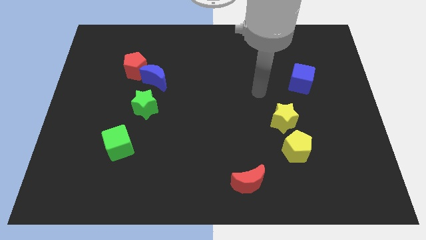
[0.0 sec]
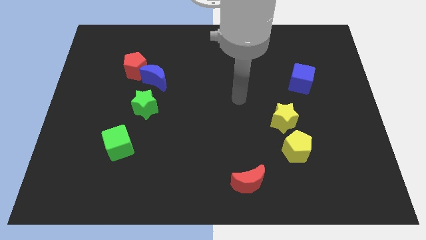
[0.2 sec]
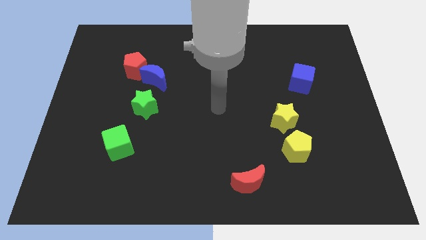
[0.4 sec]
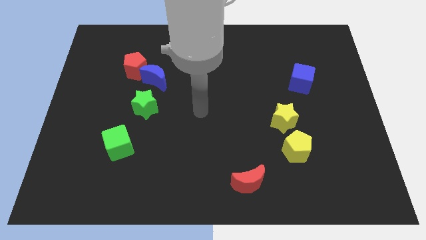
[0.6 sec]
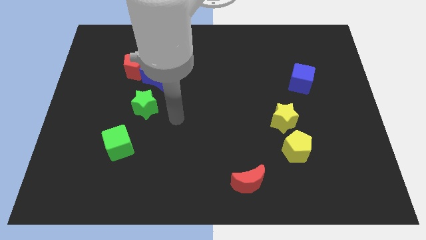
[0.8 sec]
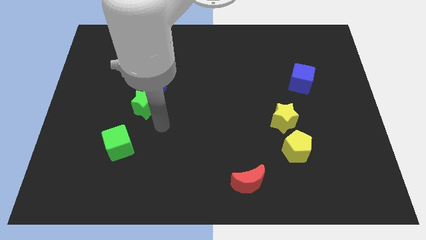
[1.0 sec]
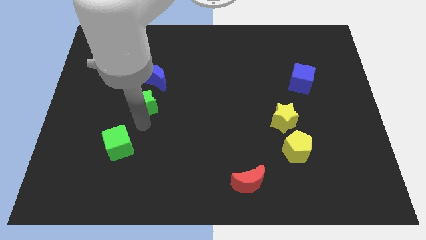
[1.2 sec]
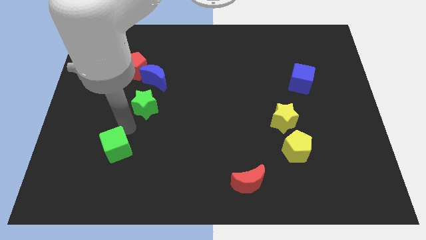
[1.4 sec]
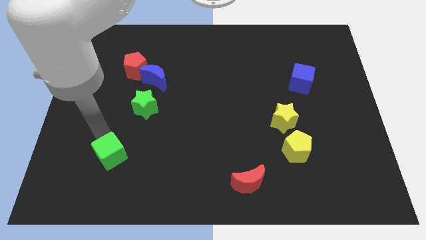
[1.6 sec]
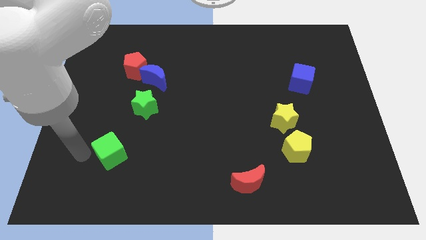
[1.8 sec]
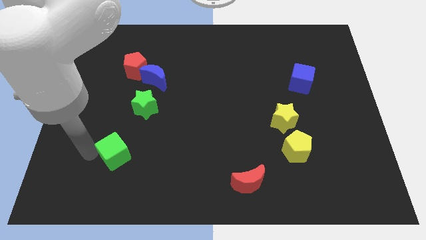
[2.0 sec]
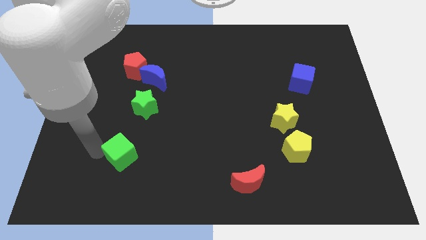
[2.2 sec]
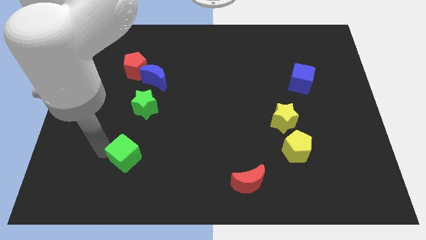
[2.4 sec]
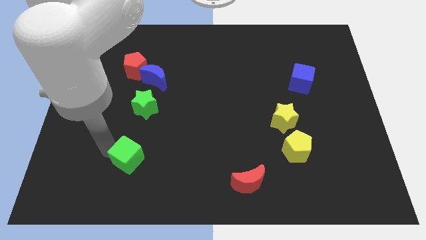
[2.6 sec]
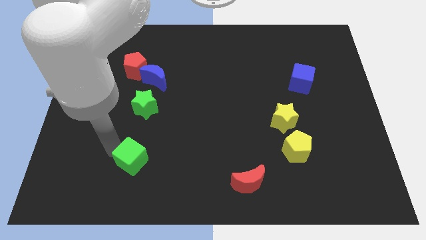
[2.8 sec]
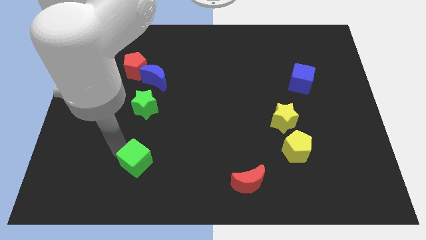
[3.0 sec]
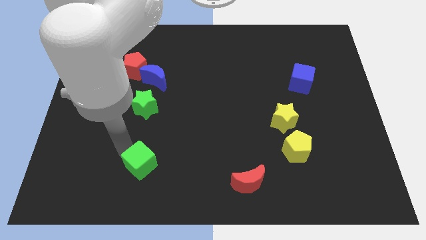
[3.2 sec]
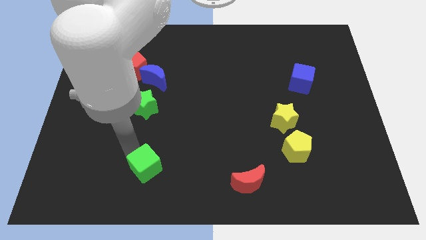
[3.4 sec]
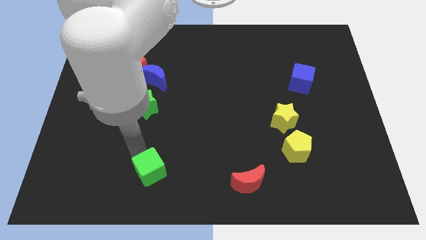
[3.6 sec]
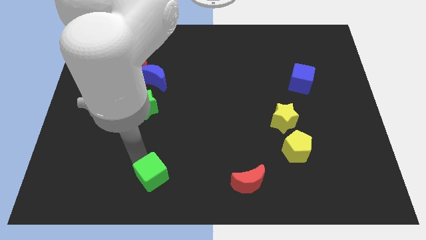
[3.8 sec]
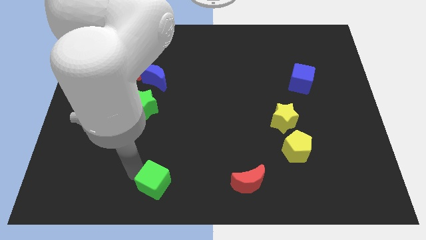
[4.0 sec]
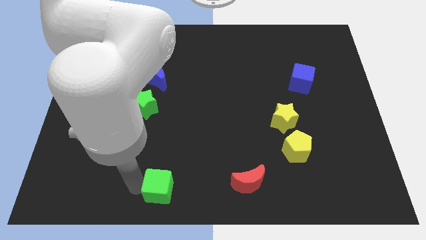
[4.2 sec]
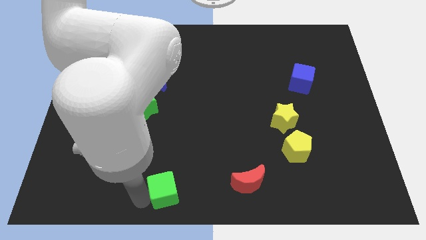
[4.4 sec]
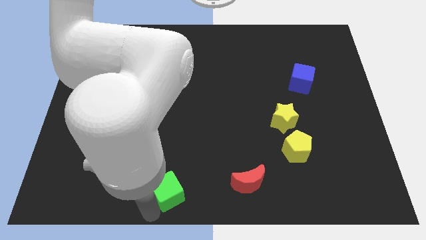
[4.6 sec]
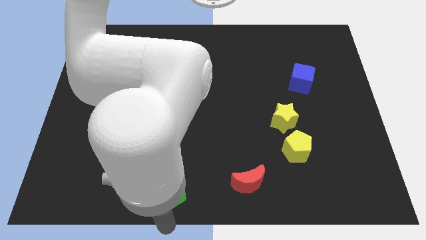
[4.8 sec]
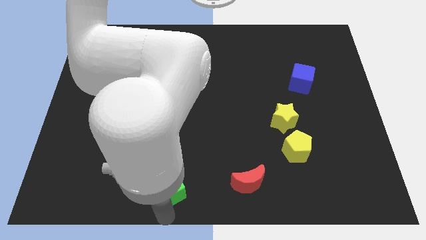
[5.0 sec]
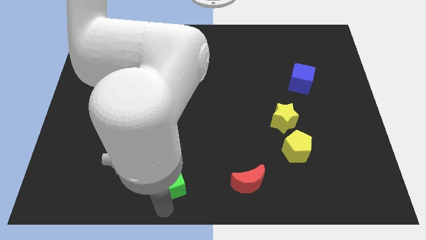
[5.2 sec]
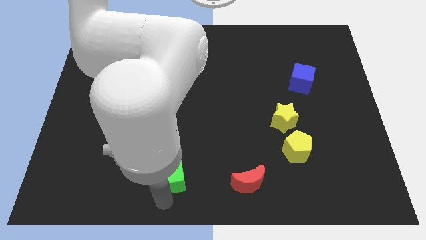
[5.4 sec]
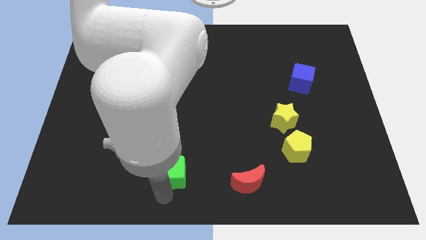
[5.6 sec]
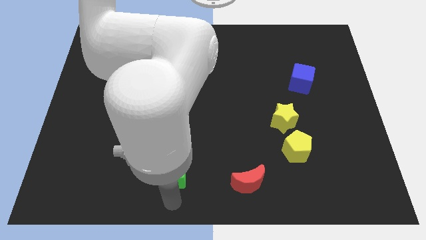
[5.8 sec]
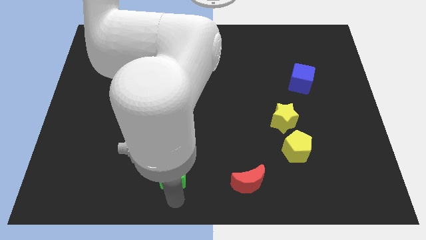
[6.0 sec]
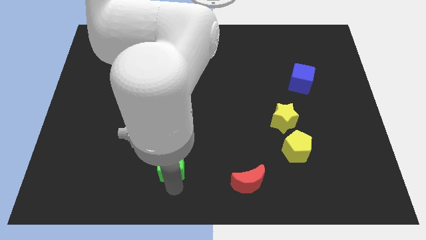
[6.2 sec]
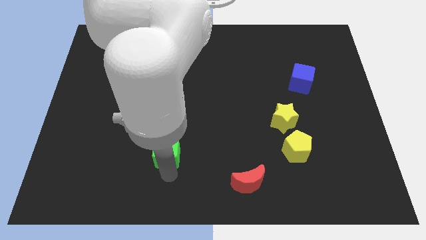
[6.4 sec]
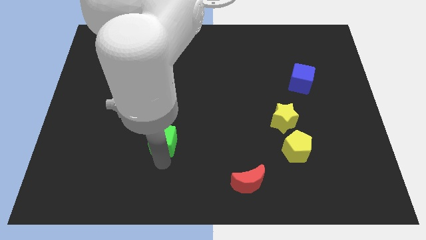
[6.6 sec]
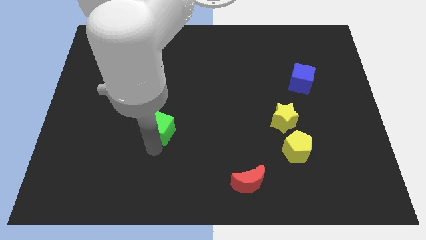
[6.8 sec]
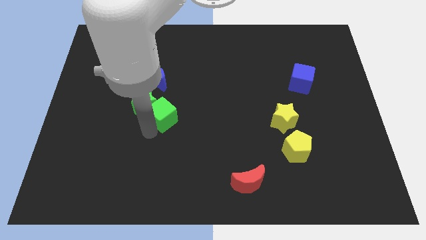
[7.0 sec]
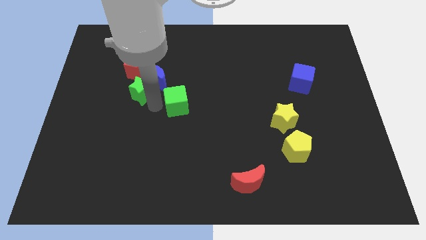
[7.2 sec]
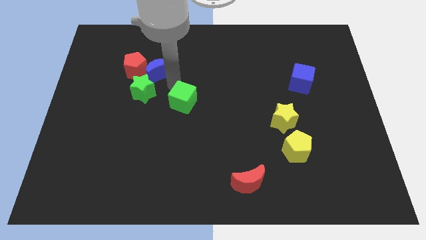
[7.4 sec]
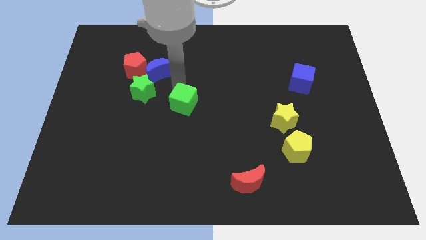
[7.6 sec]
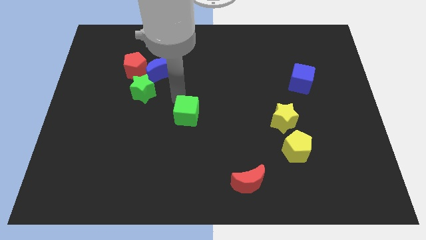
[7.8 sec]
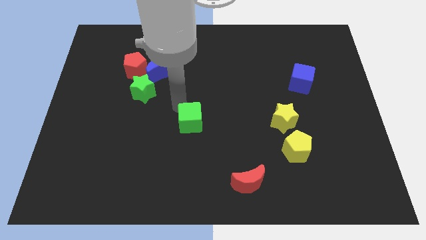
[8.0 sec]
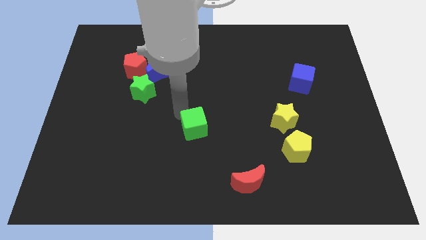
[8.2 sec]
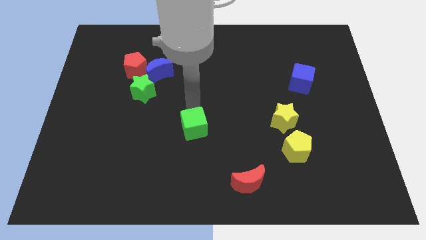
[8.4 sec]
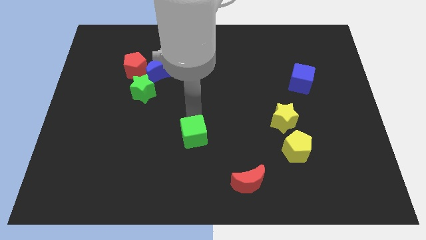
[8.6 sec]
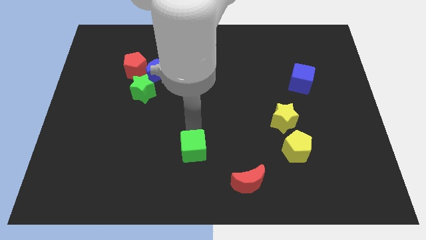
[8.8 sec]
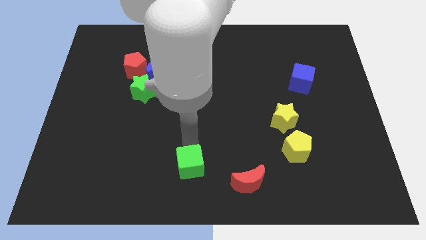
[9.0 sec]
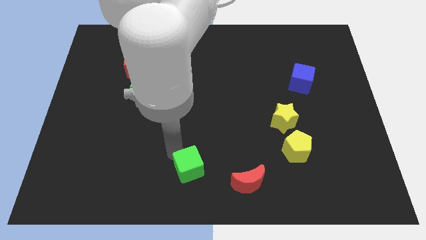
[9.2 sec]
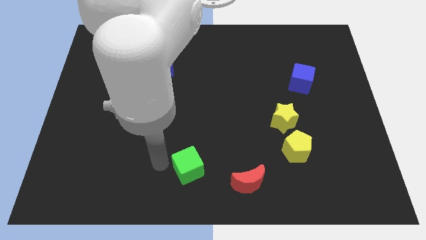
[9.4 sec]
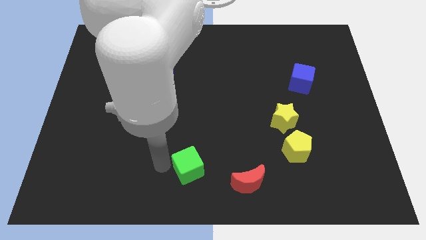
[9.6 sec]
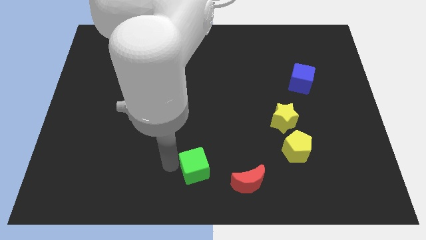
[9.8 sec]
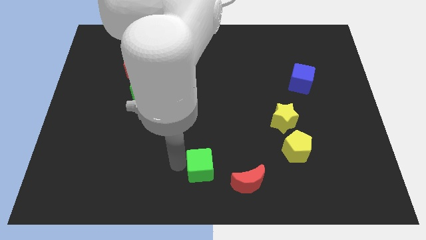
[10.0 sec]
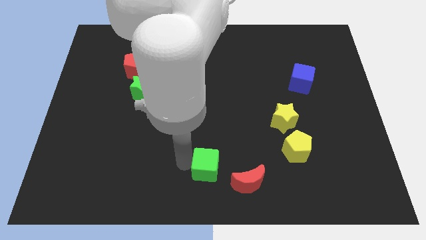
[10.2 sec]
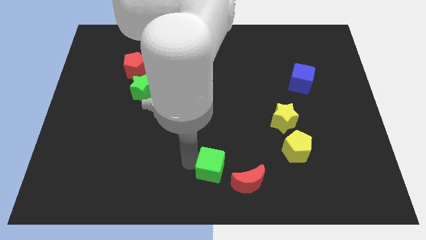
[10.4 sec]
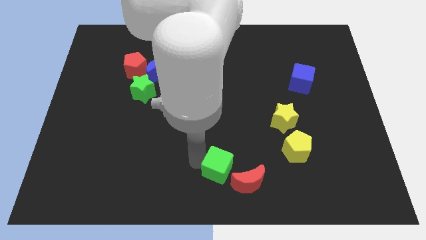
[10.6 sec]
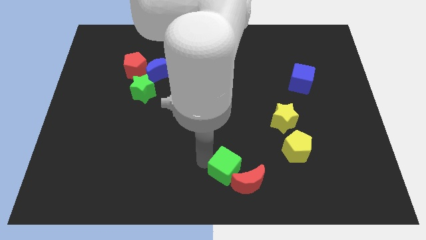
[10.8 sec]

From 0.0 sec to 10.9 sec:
slide the green cube close to the red moon

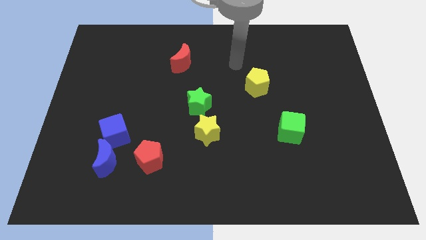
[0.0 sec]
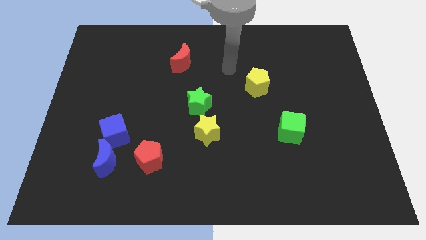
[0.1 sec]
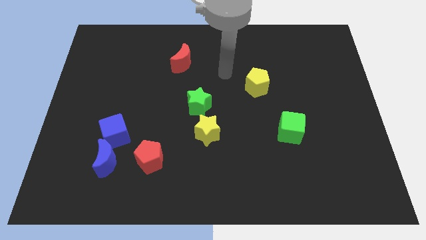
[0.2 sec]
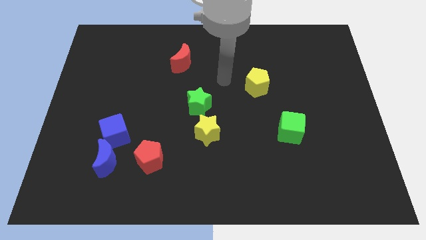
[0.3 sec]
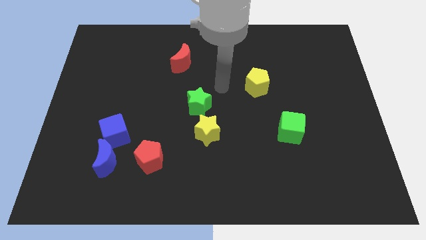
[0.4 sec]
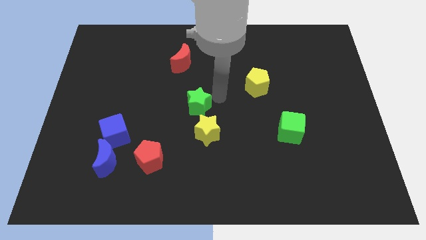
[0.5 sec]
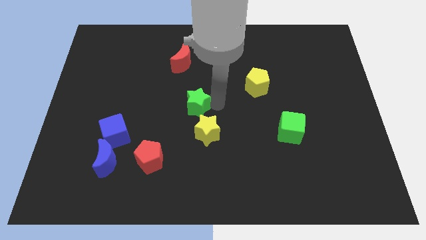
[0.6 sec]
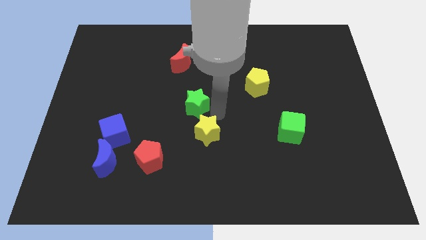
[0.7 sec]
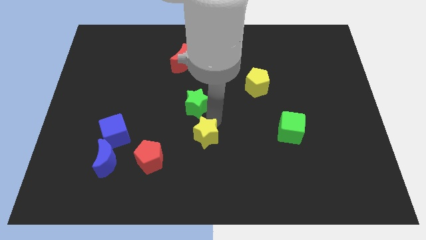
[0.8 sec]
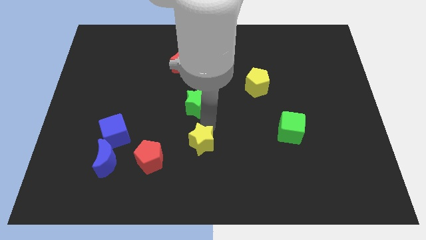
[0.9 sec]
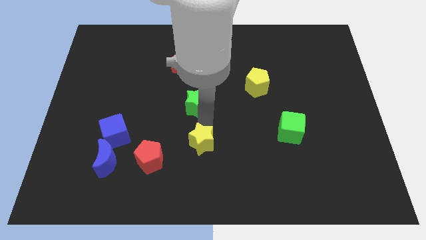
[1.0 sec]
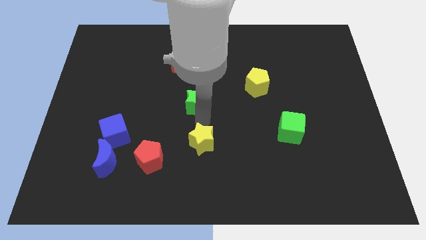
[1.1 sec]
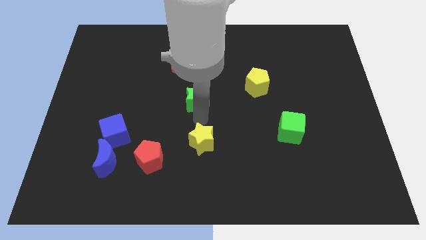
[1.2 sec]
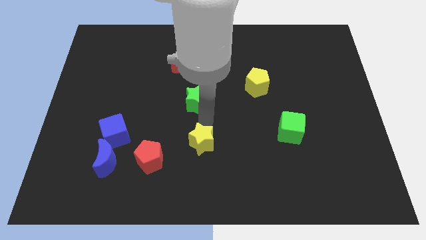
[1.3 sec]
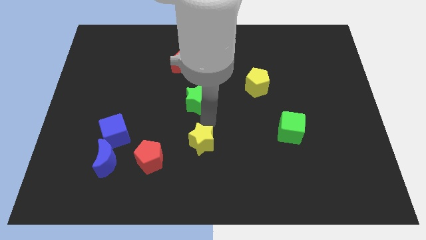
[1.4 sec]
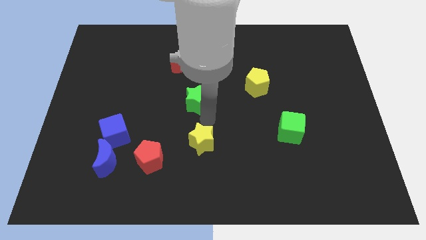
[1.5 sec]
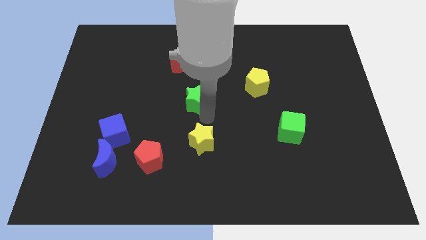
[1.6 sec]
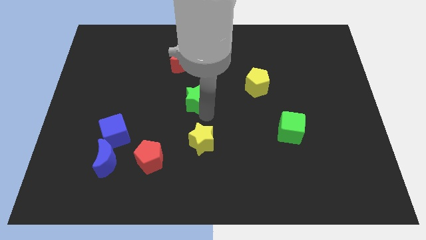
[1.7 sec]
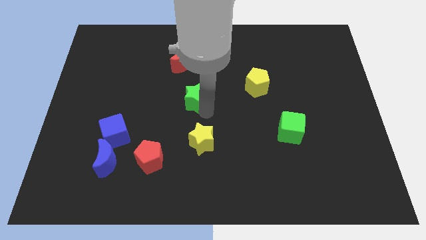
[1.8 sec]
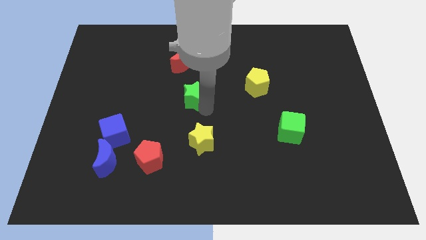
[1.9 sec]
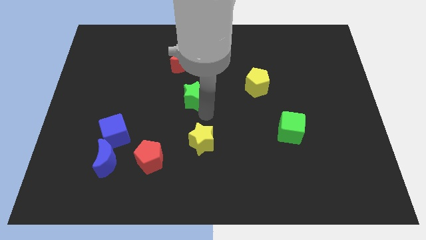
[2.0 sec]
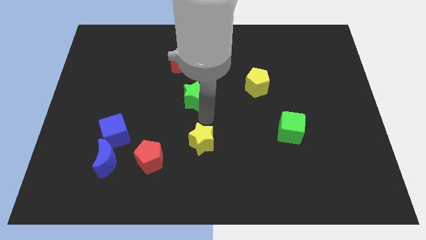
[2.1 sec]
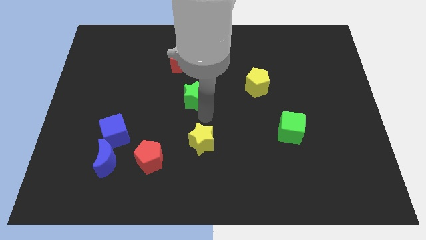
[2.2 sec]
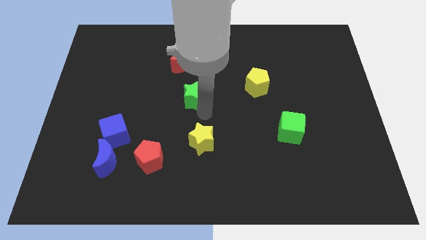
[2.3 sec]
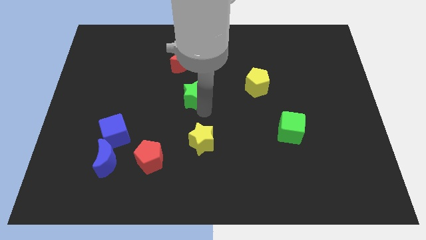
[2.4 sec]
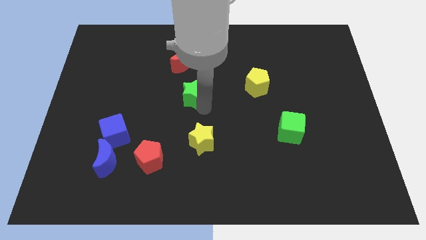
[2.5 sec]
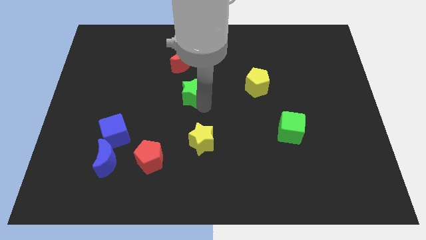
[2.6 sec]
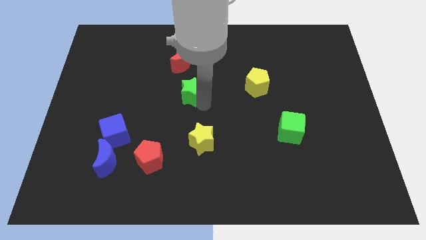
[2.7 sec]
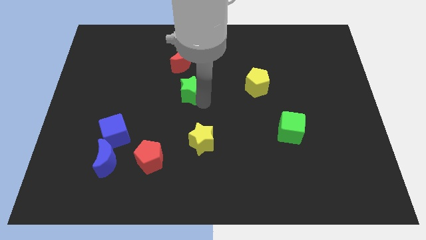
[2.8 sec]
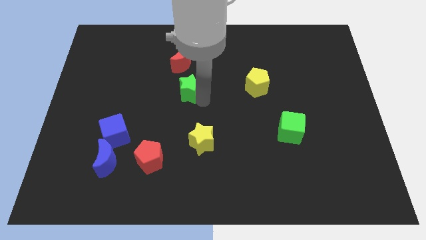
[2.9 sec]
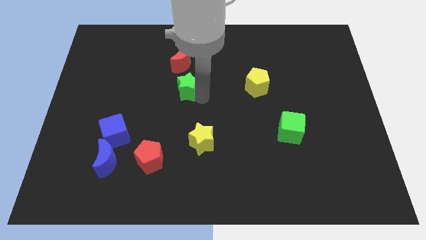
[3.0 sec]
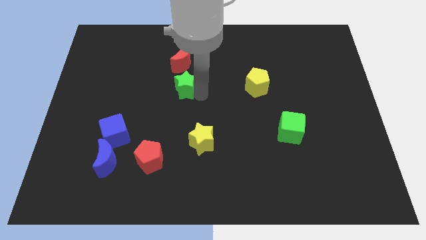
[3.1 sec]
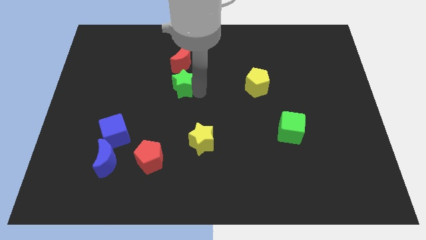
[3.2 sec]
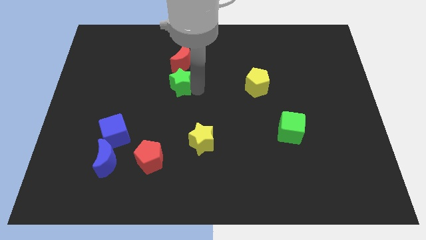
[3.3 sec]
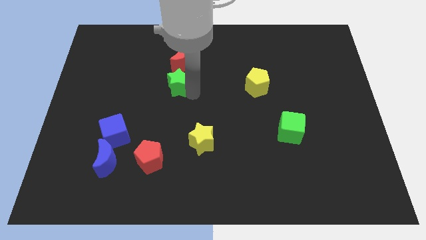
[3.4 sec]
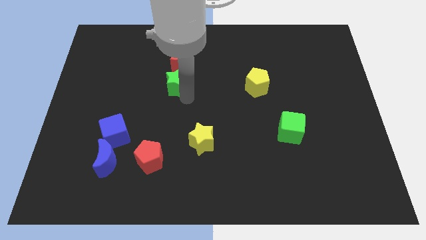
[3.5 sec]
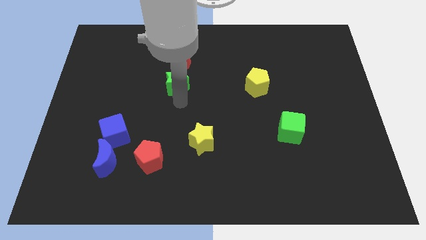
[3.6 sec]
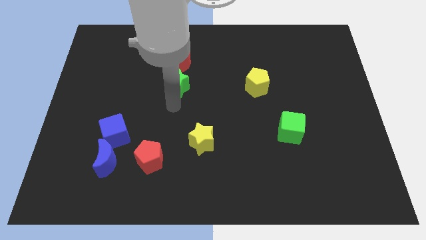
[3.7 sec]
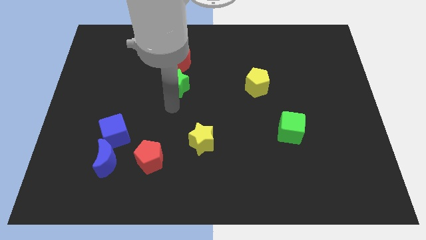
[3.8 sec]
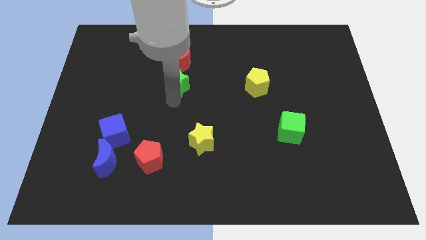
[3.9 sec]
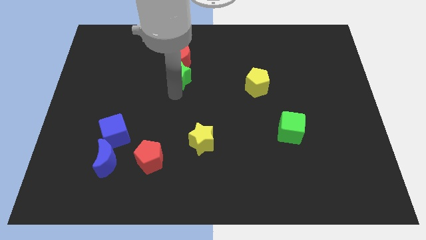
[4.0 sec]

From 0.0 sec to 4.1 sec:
move the green star close to the red moon
